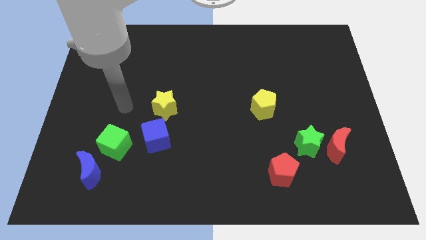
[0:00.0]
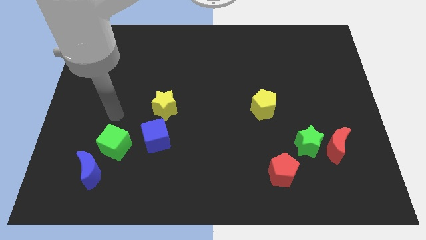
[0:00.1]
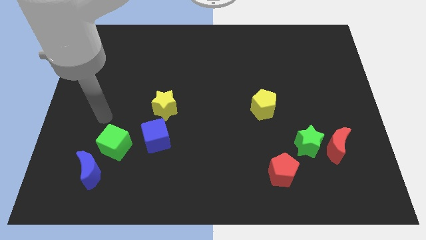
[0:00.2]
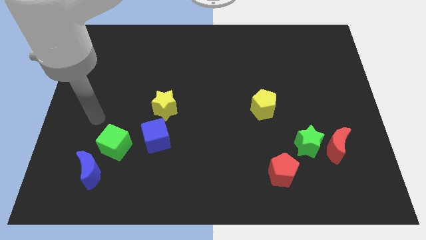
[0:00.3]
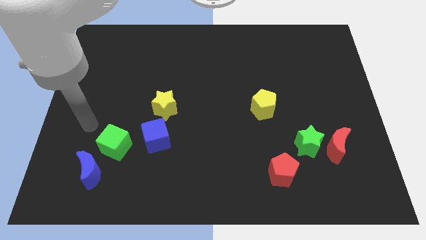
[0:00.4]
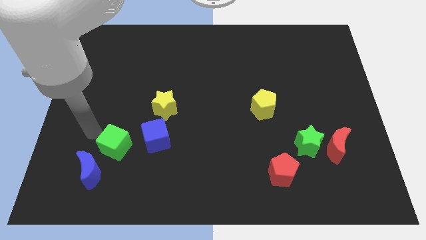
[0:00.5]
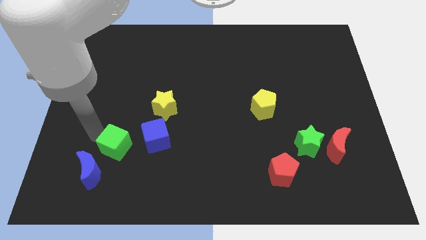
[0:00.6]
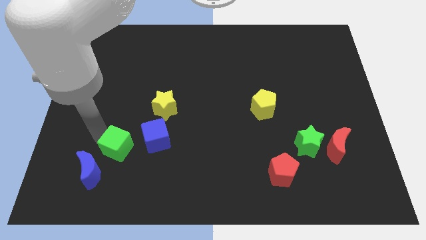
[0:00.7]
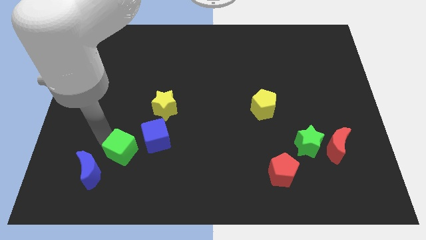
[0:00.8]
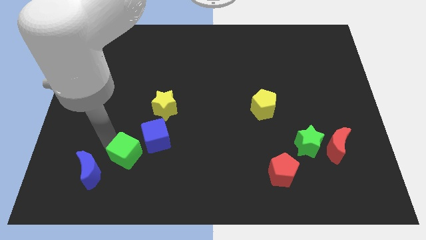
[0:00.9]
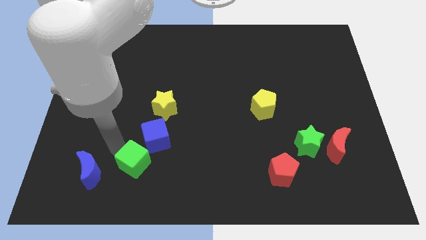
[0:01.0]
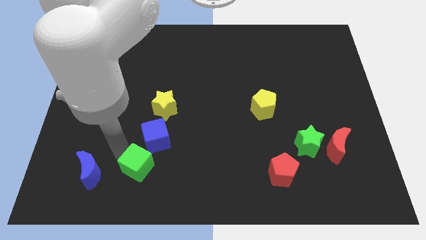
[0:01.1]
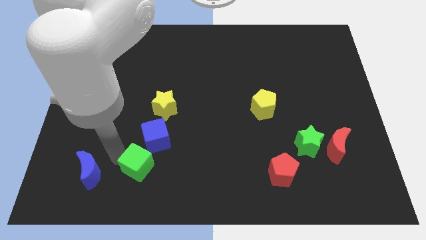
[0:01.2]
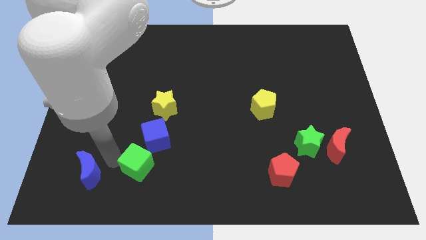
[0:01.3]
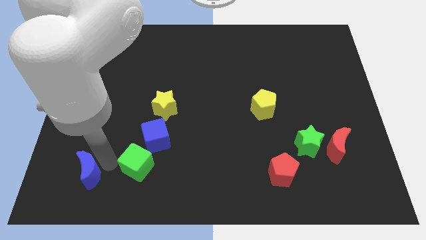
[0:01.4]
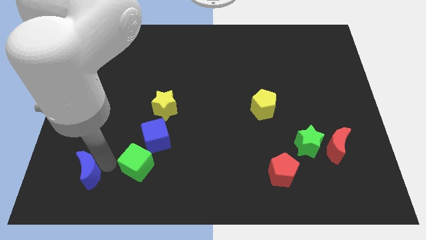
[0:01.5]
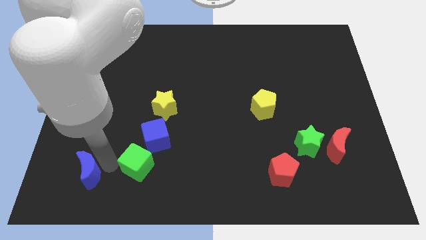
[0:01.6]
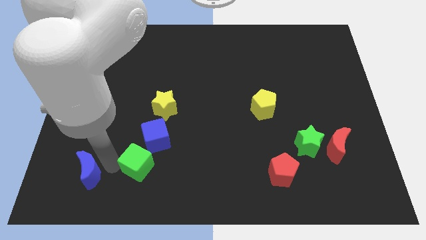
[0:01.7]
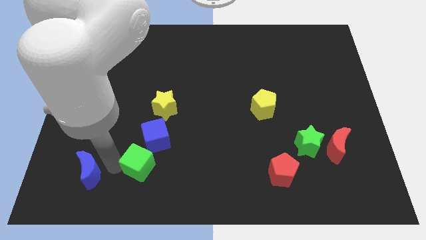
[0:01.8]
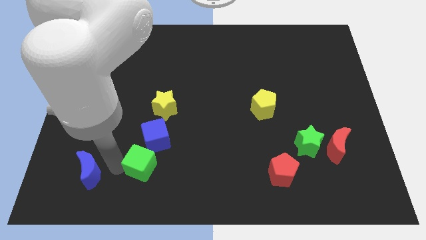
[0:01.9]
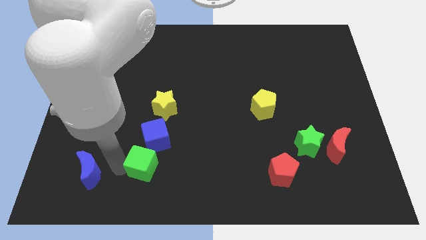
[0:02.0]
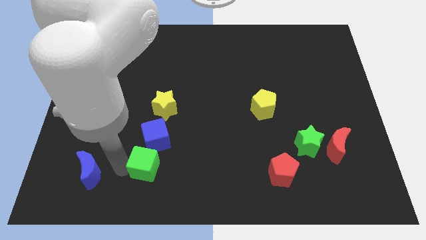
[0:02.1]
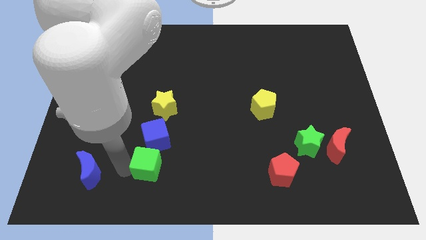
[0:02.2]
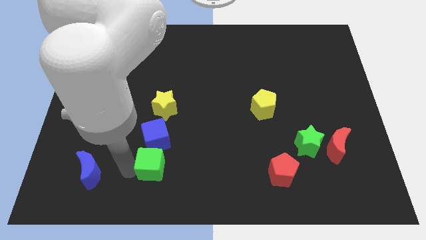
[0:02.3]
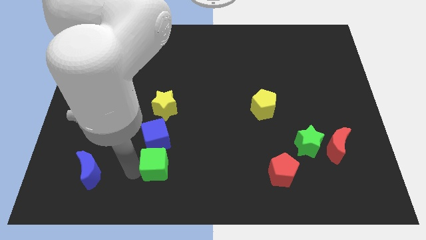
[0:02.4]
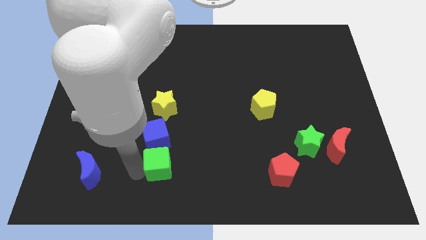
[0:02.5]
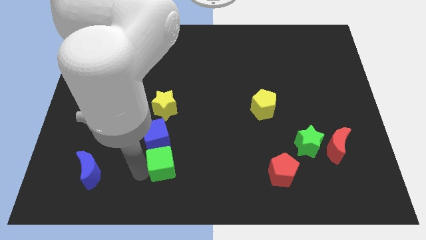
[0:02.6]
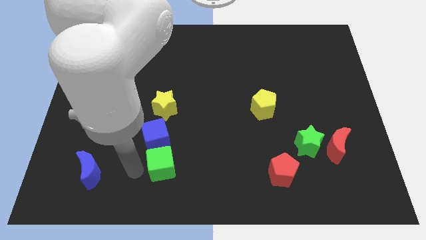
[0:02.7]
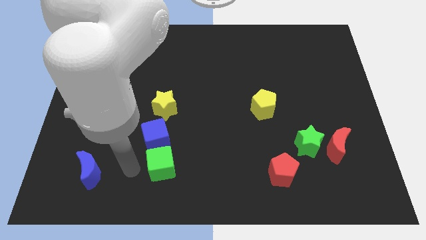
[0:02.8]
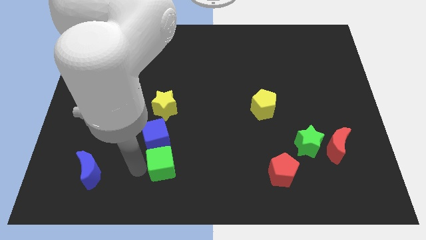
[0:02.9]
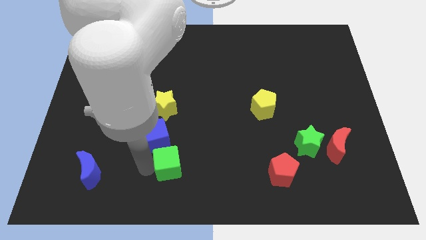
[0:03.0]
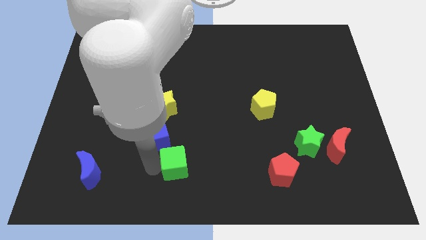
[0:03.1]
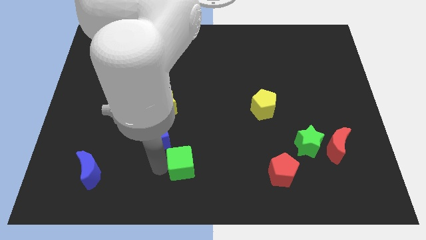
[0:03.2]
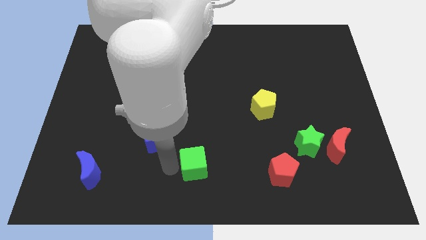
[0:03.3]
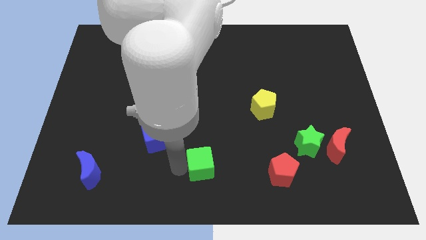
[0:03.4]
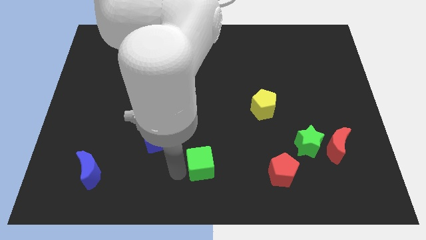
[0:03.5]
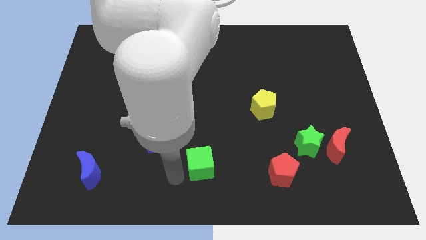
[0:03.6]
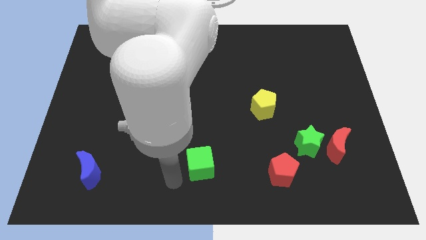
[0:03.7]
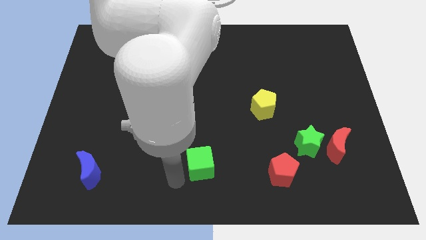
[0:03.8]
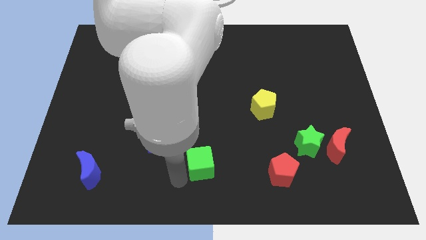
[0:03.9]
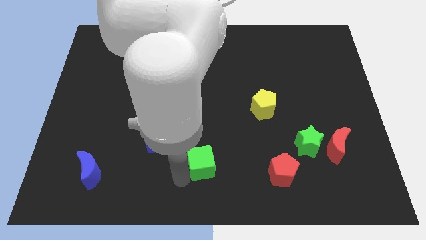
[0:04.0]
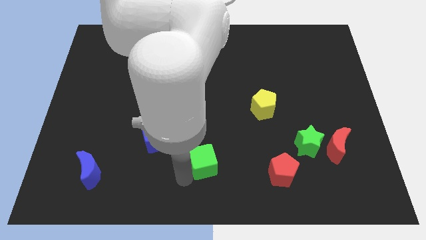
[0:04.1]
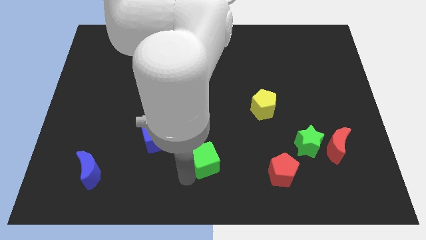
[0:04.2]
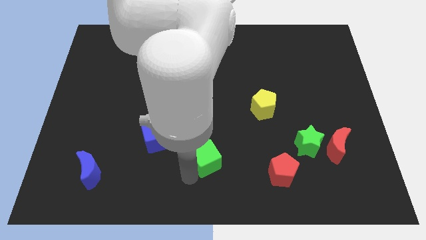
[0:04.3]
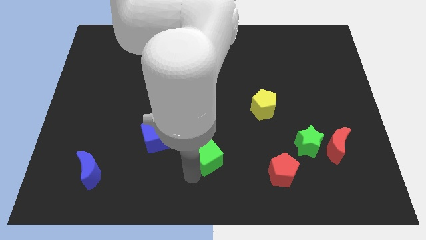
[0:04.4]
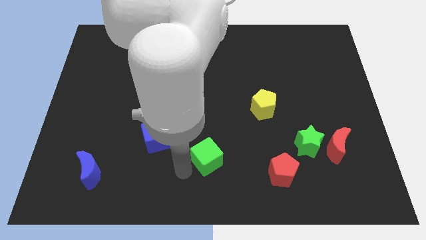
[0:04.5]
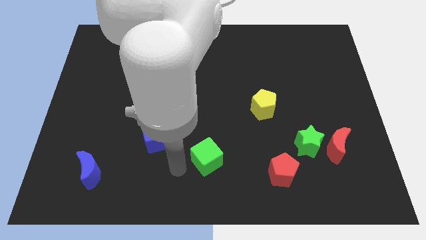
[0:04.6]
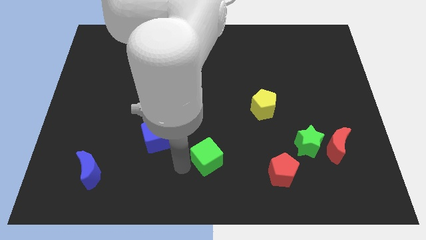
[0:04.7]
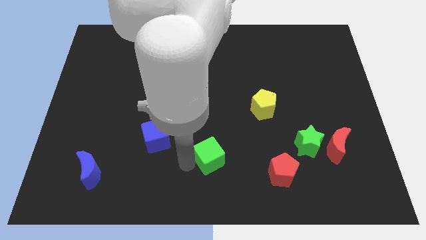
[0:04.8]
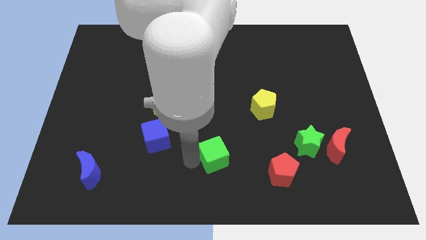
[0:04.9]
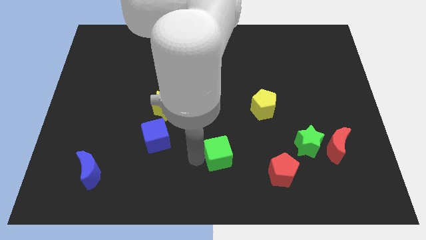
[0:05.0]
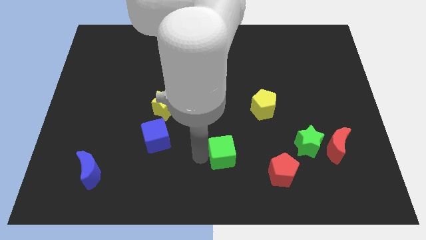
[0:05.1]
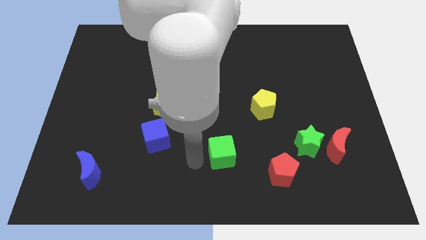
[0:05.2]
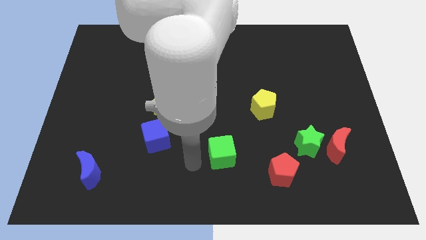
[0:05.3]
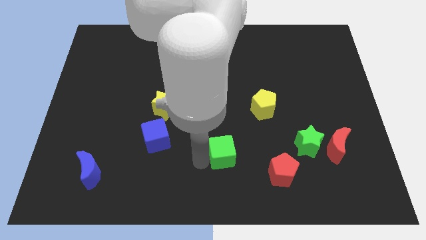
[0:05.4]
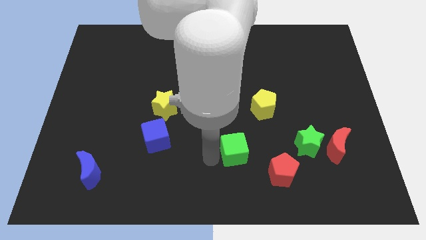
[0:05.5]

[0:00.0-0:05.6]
move the green cube to the left side of the green star

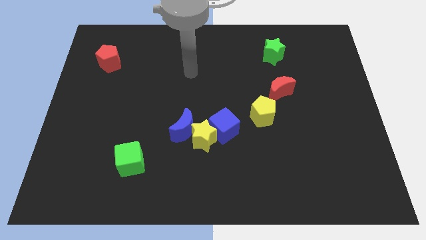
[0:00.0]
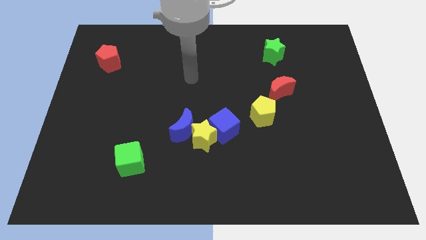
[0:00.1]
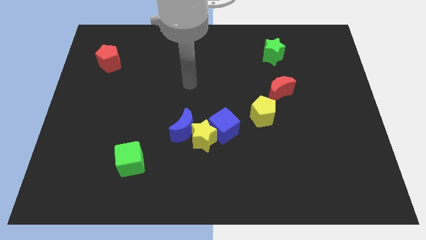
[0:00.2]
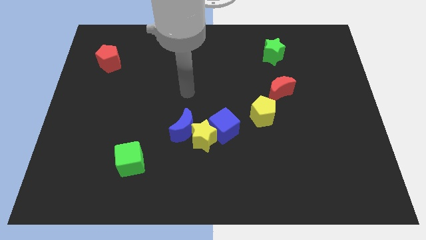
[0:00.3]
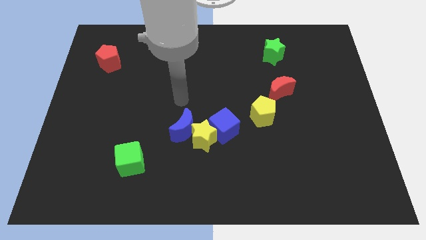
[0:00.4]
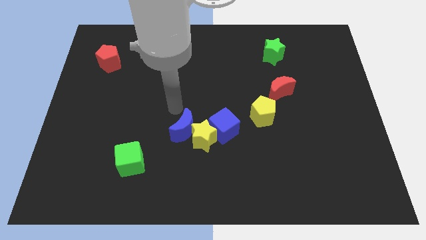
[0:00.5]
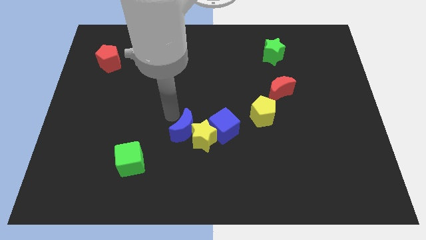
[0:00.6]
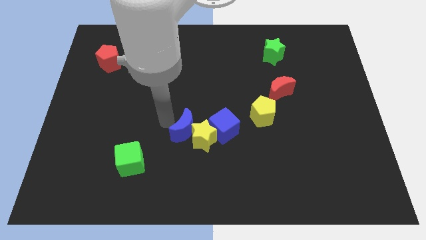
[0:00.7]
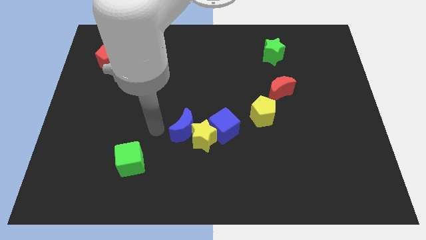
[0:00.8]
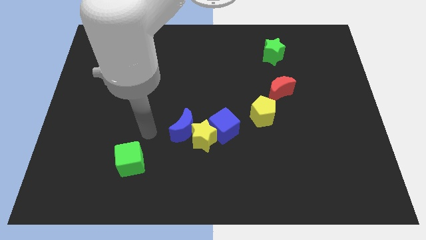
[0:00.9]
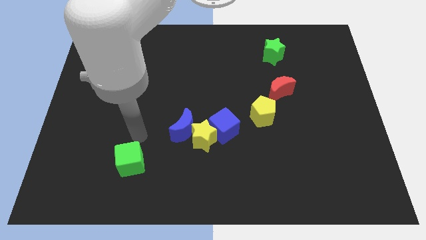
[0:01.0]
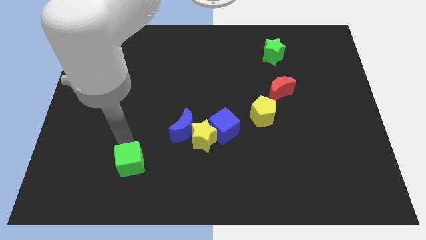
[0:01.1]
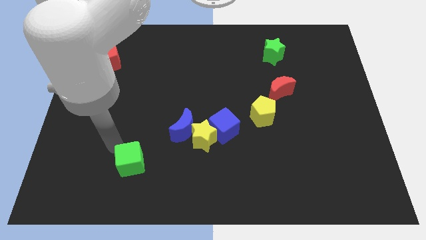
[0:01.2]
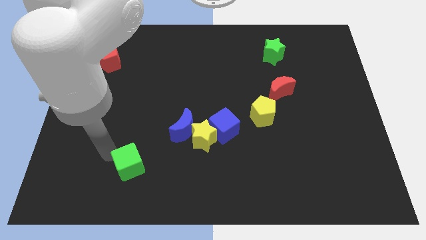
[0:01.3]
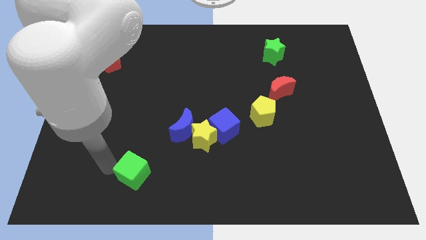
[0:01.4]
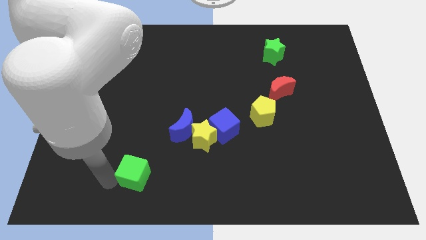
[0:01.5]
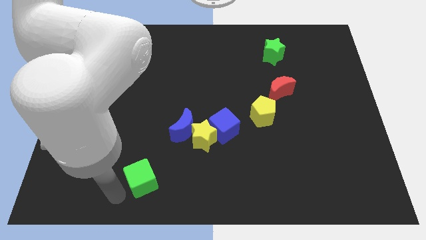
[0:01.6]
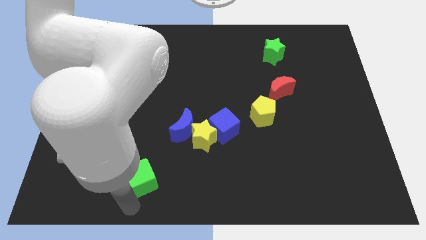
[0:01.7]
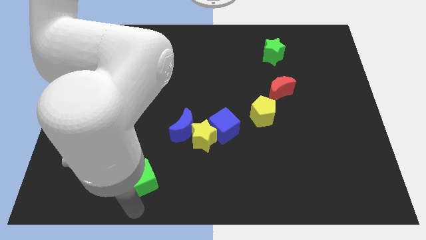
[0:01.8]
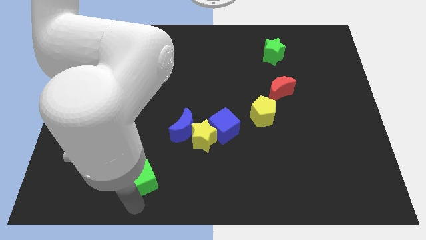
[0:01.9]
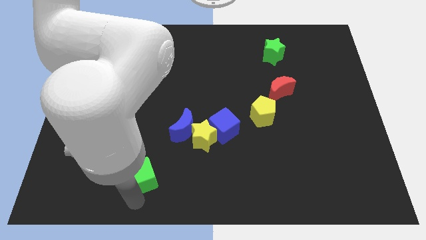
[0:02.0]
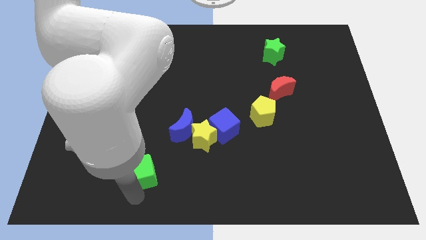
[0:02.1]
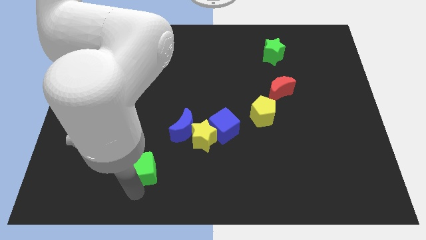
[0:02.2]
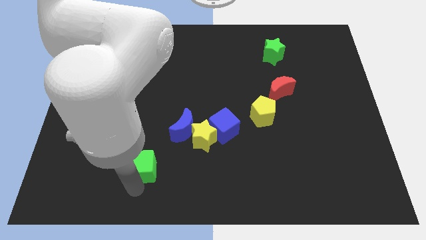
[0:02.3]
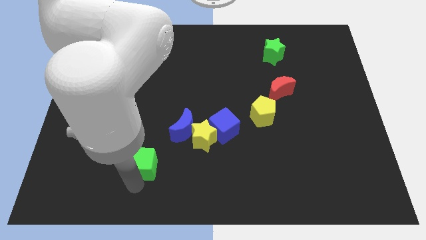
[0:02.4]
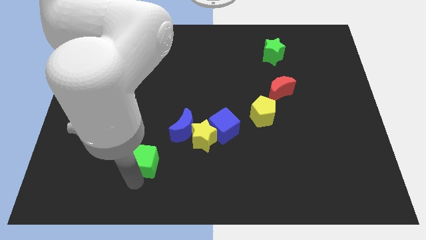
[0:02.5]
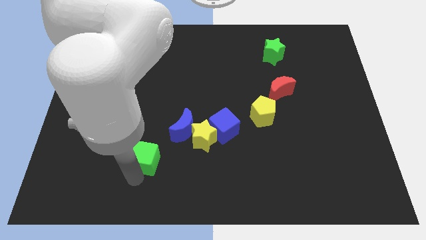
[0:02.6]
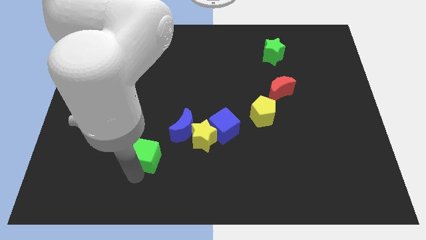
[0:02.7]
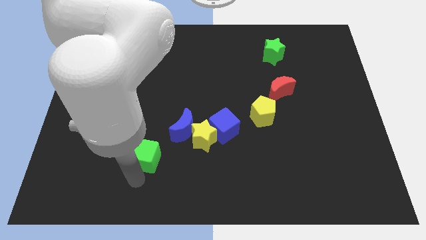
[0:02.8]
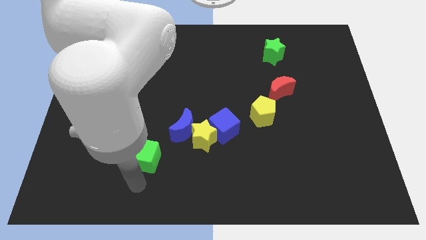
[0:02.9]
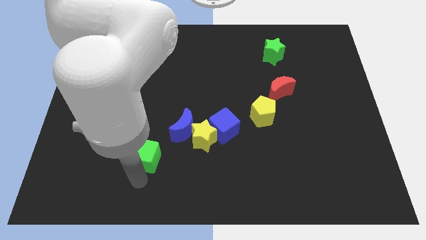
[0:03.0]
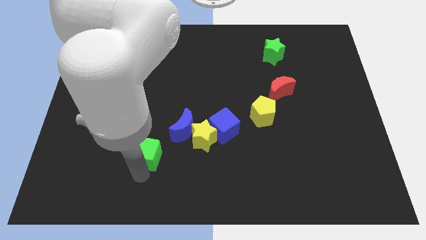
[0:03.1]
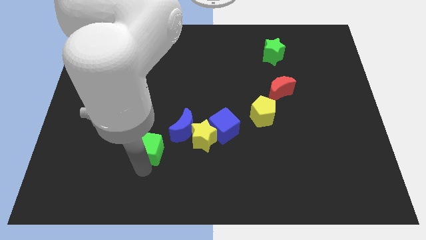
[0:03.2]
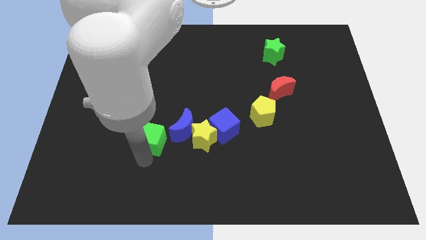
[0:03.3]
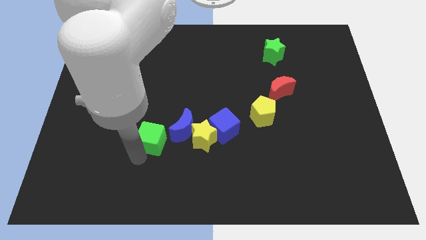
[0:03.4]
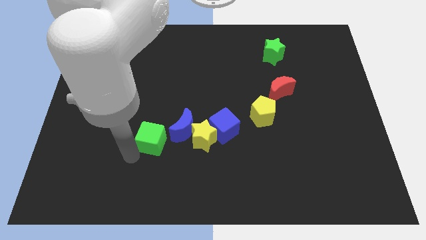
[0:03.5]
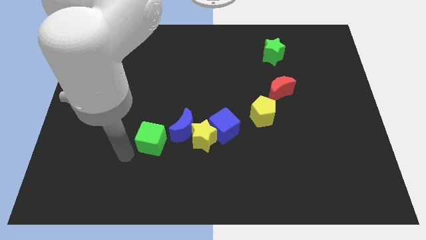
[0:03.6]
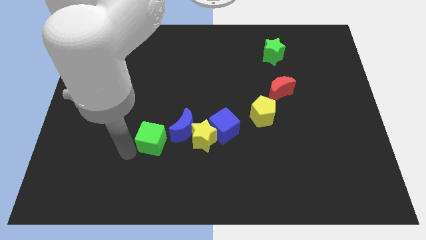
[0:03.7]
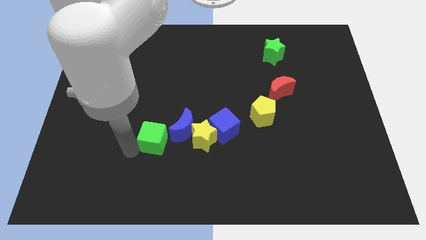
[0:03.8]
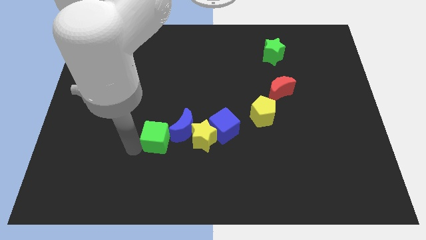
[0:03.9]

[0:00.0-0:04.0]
slide the green cube left of the blue cube
